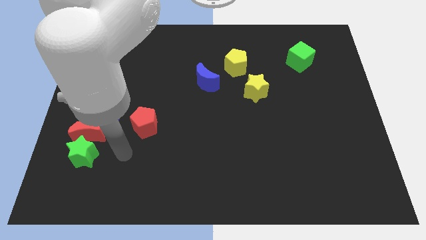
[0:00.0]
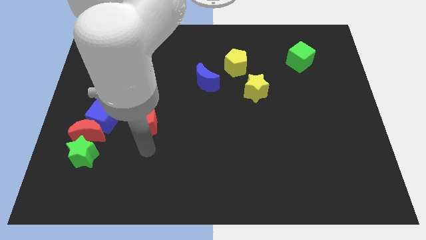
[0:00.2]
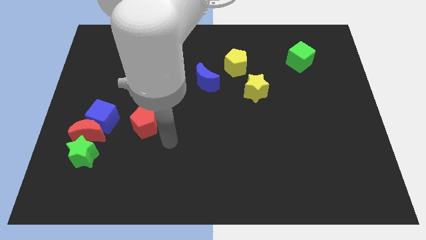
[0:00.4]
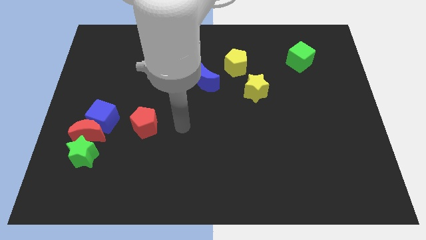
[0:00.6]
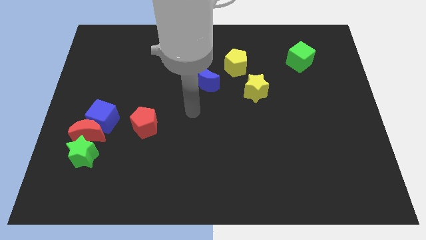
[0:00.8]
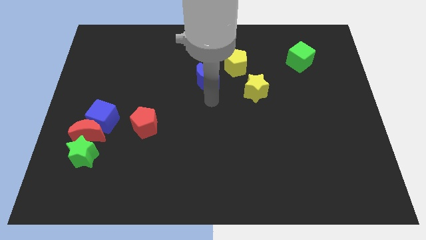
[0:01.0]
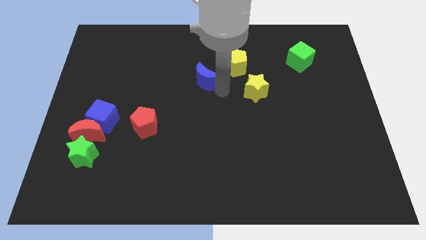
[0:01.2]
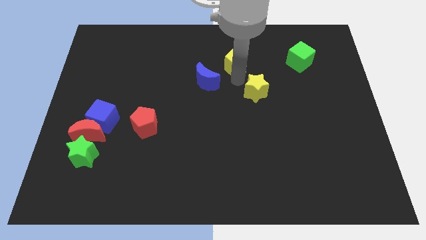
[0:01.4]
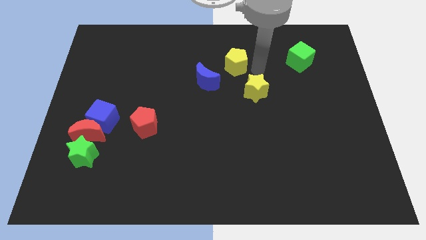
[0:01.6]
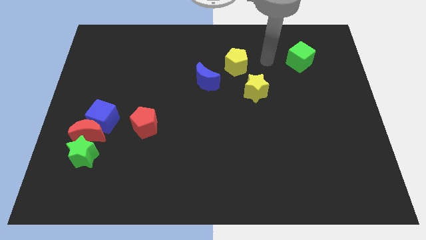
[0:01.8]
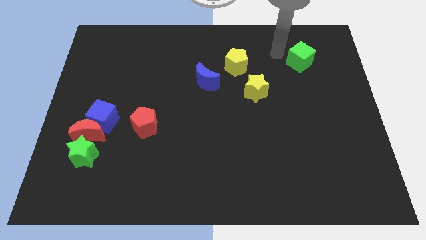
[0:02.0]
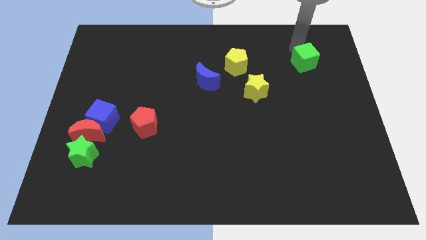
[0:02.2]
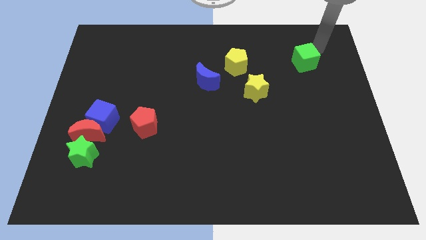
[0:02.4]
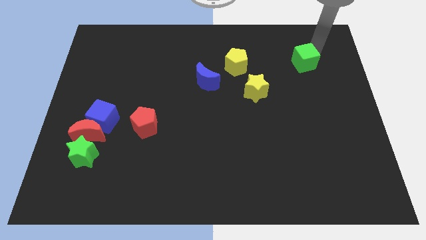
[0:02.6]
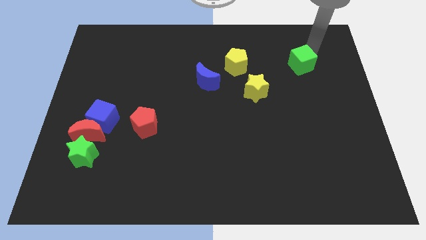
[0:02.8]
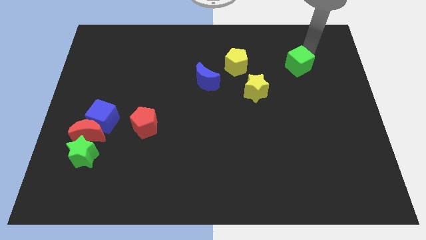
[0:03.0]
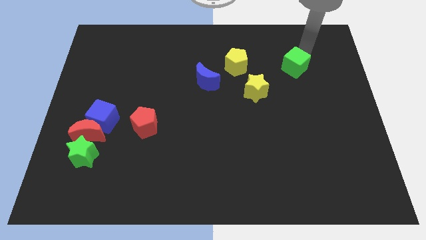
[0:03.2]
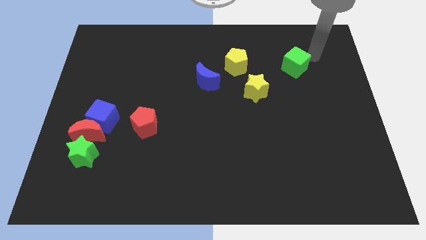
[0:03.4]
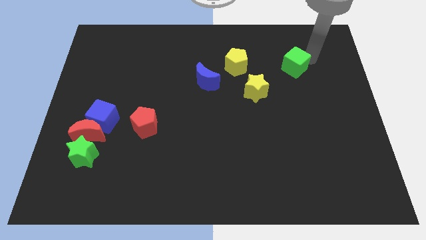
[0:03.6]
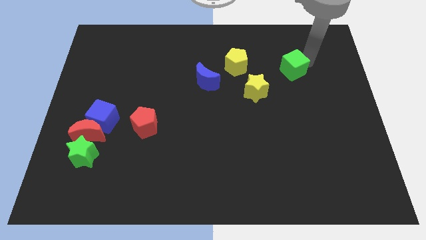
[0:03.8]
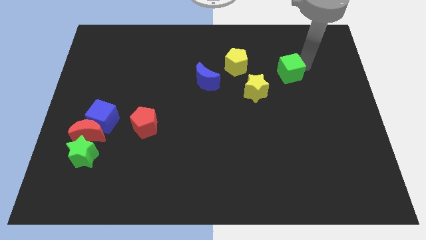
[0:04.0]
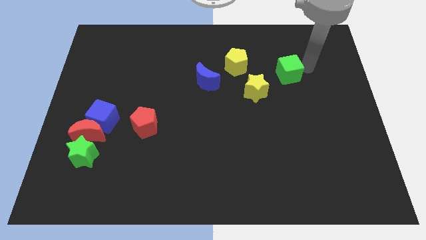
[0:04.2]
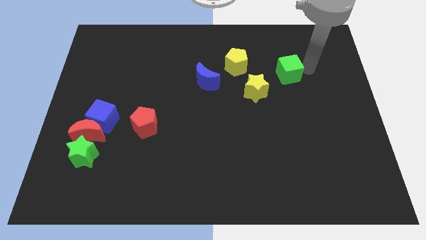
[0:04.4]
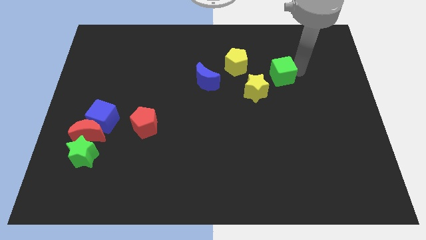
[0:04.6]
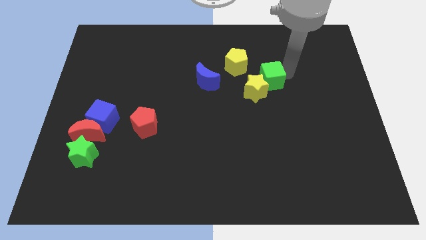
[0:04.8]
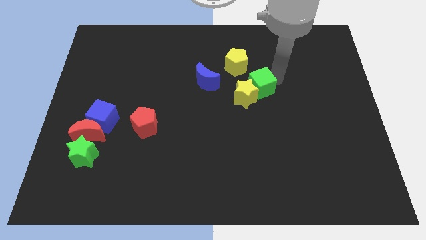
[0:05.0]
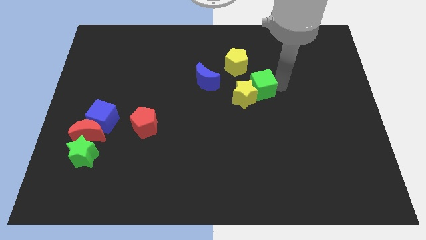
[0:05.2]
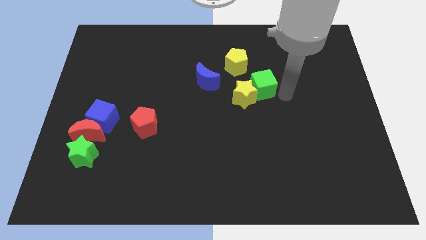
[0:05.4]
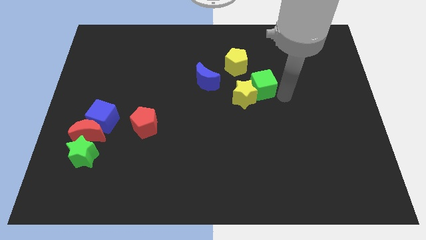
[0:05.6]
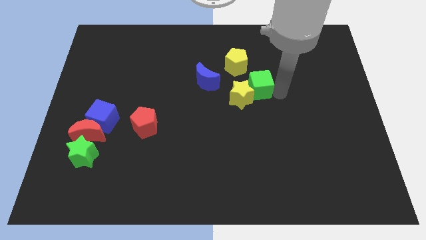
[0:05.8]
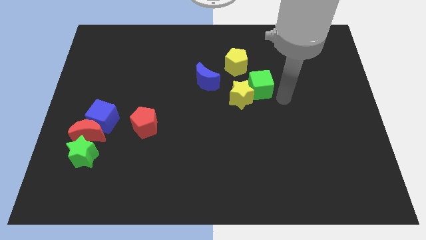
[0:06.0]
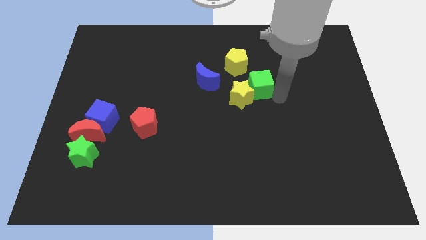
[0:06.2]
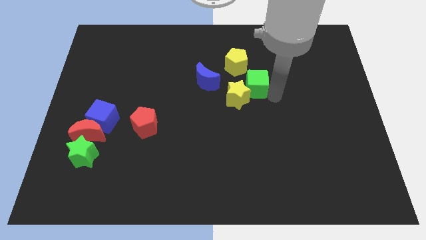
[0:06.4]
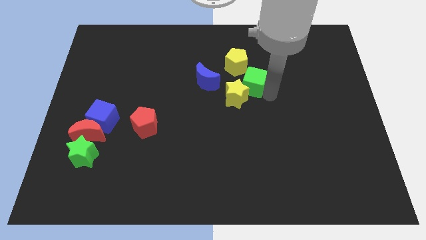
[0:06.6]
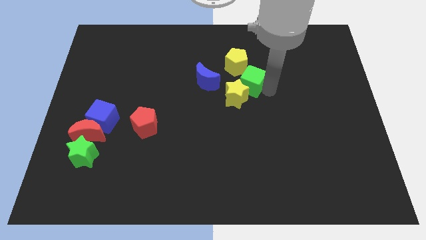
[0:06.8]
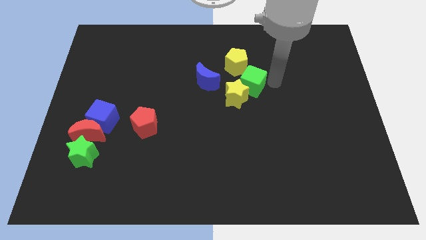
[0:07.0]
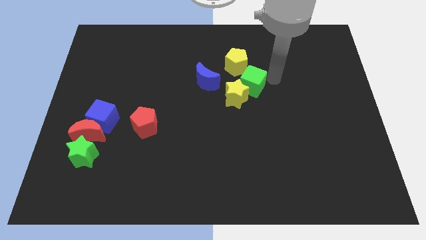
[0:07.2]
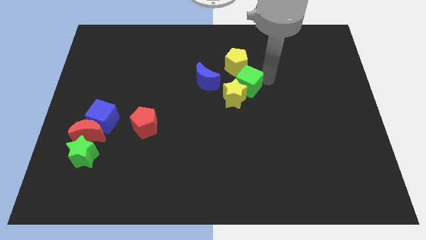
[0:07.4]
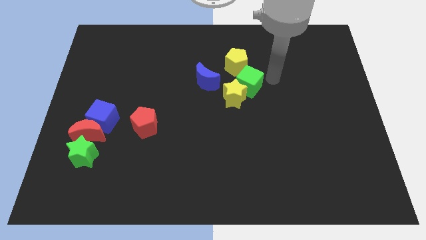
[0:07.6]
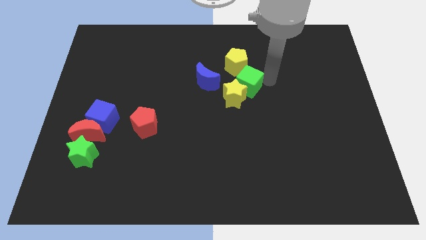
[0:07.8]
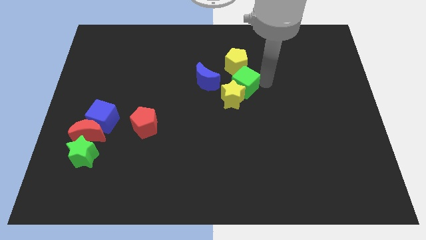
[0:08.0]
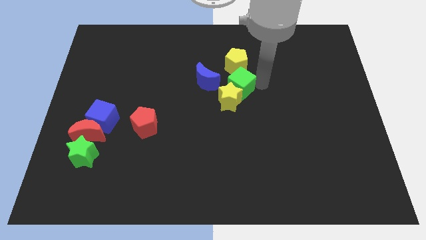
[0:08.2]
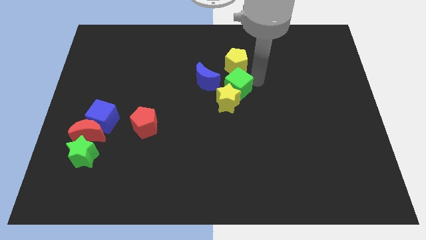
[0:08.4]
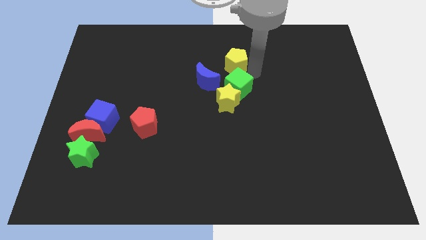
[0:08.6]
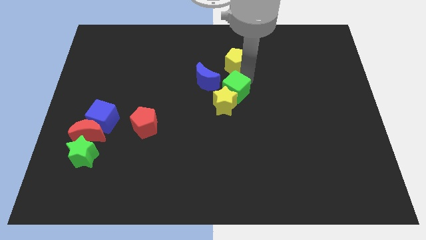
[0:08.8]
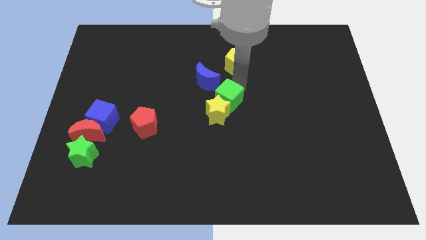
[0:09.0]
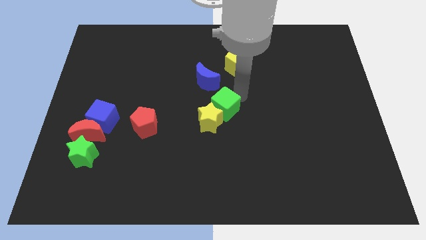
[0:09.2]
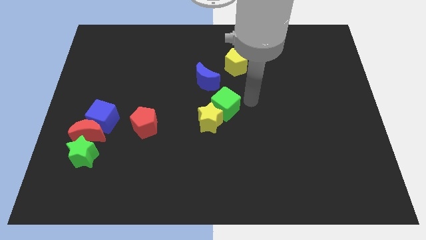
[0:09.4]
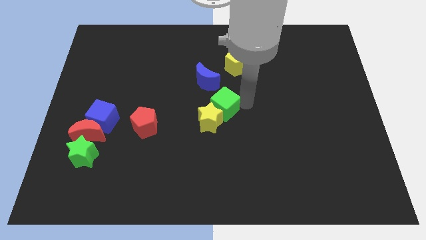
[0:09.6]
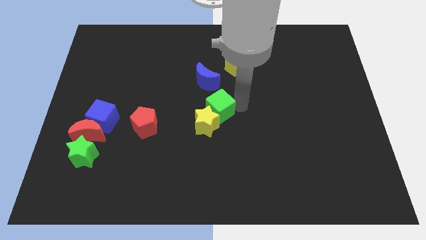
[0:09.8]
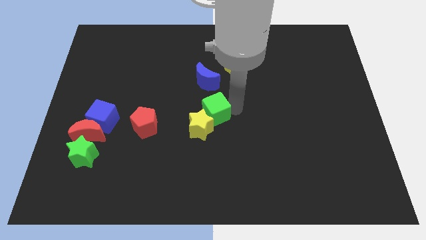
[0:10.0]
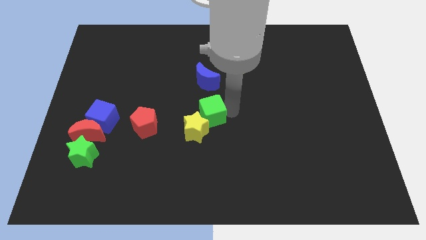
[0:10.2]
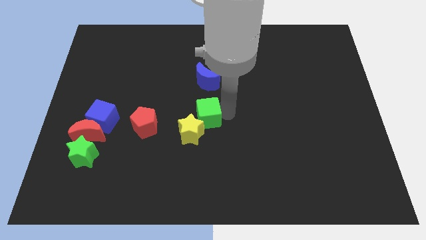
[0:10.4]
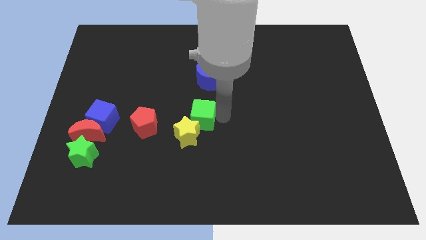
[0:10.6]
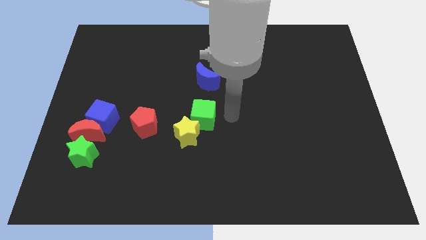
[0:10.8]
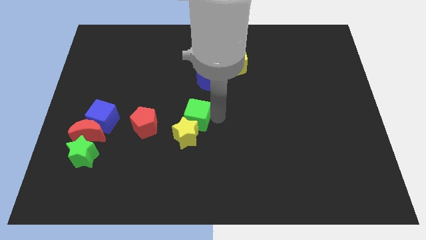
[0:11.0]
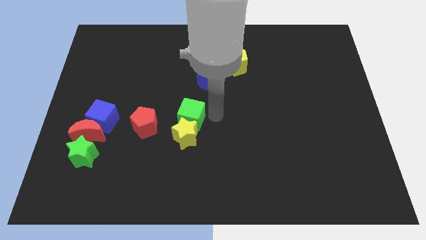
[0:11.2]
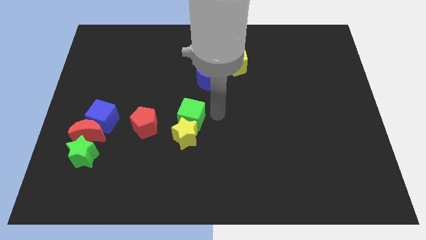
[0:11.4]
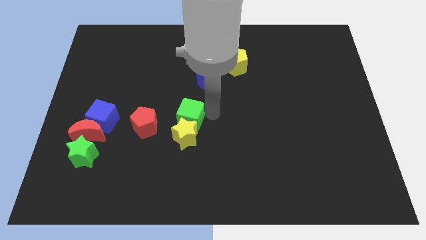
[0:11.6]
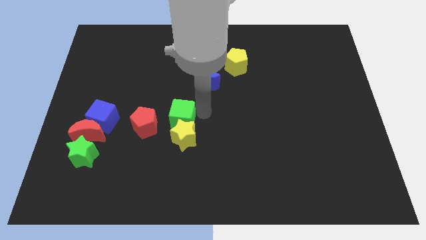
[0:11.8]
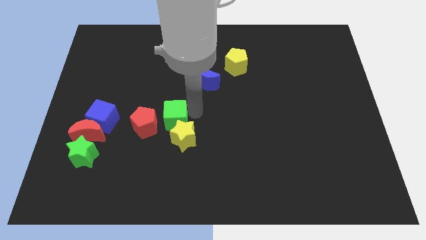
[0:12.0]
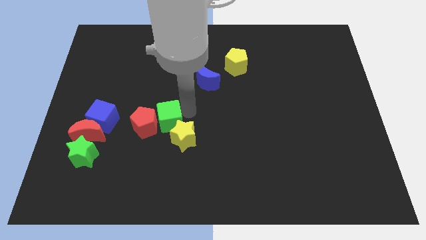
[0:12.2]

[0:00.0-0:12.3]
push the green cube towards the red pentagon

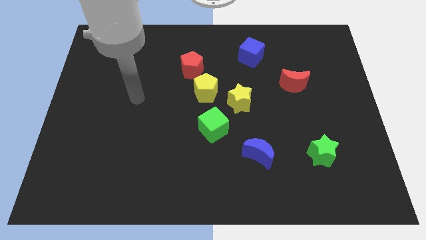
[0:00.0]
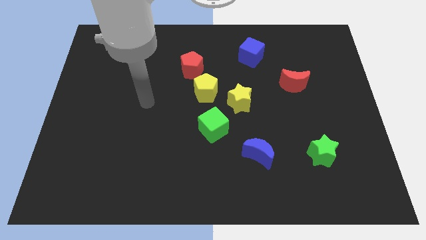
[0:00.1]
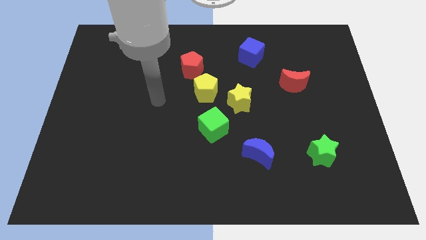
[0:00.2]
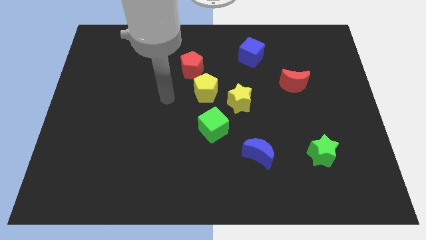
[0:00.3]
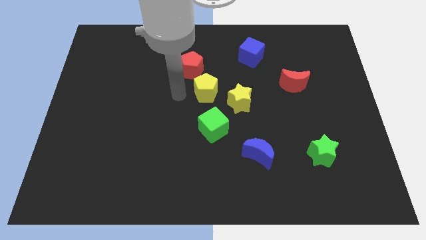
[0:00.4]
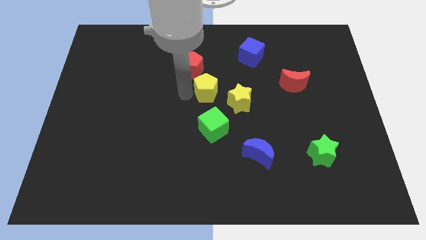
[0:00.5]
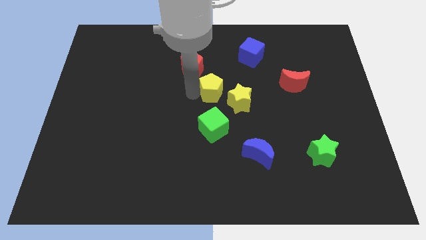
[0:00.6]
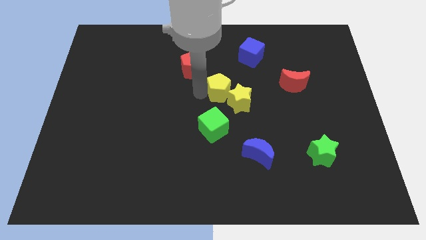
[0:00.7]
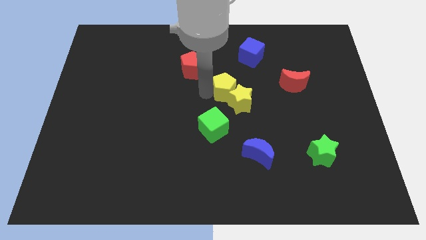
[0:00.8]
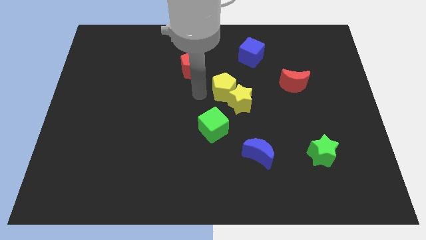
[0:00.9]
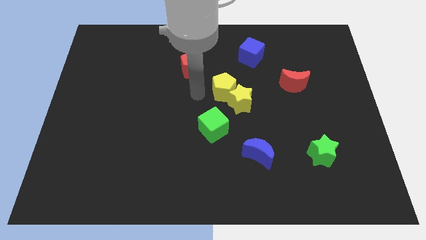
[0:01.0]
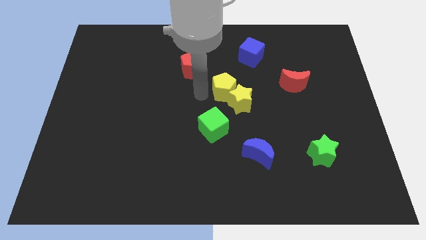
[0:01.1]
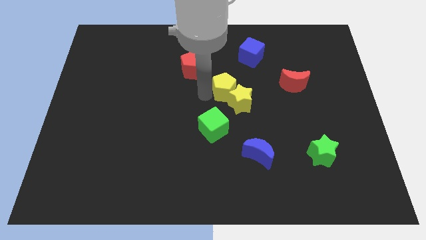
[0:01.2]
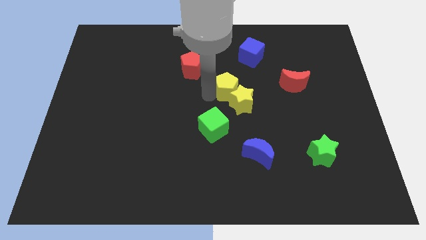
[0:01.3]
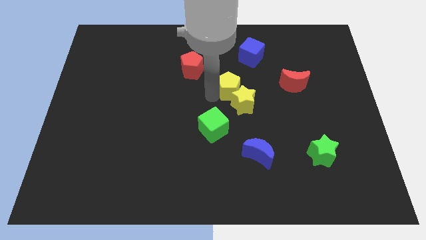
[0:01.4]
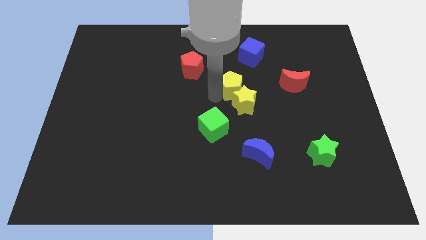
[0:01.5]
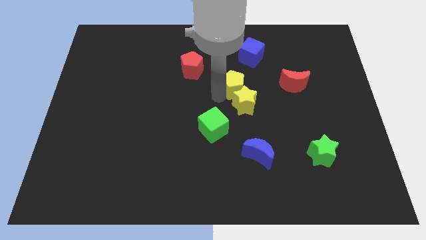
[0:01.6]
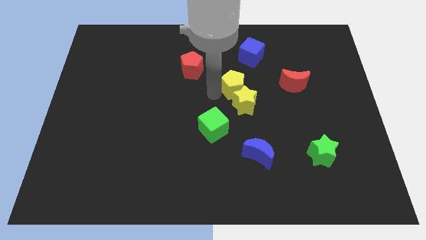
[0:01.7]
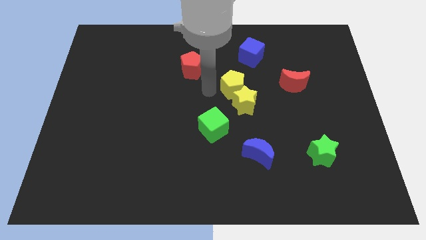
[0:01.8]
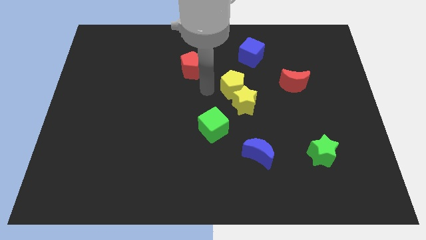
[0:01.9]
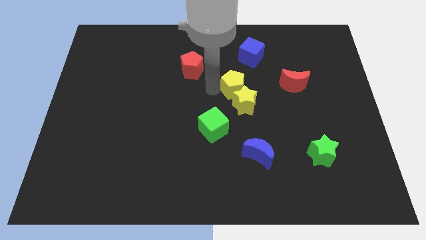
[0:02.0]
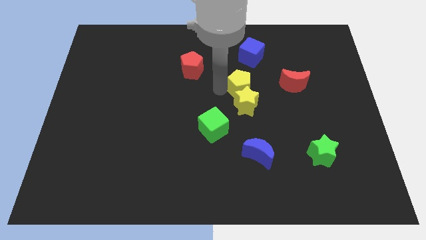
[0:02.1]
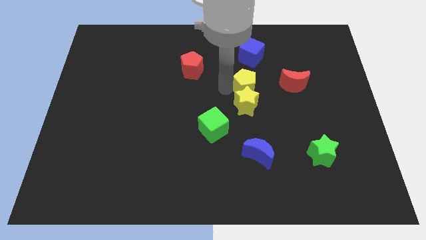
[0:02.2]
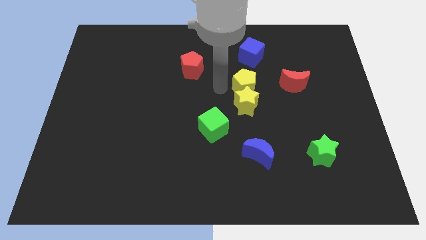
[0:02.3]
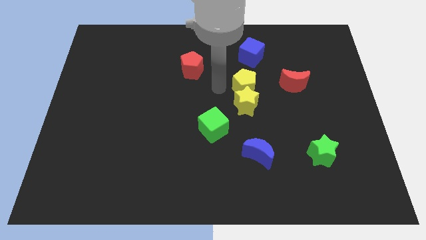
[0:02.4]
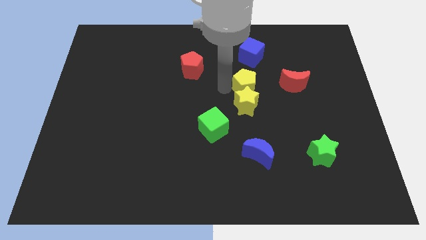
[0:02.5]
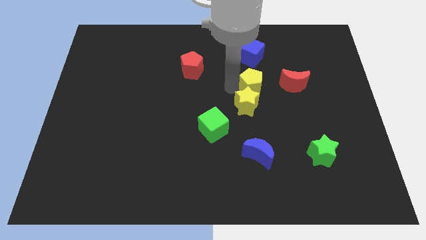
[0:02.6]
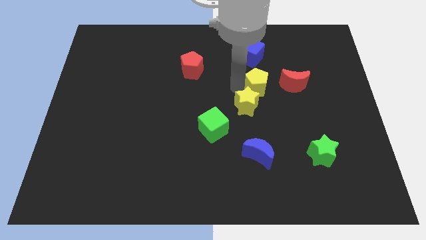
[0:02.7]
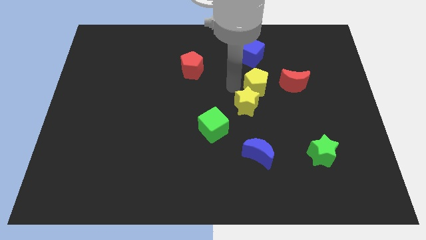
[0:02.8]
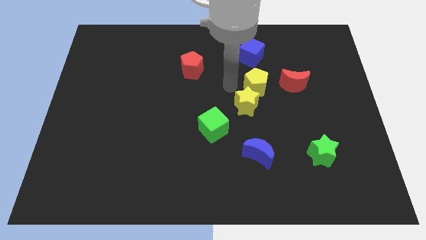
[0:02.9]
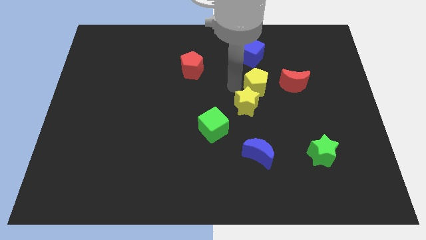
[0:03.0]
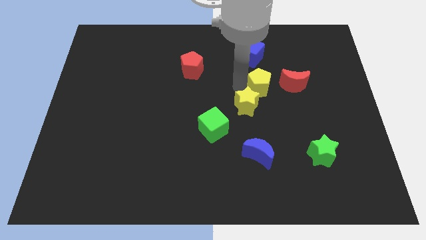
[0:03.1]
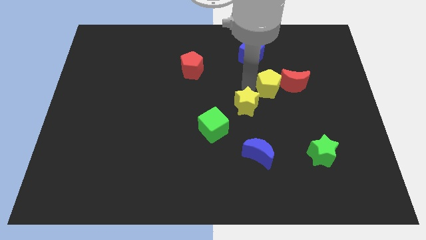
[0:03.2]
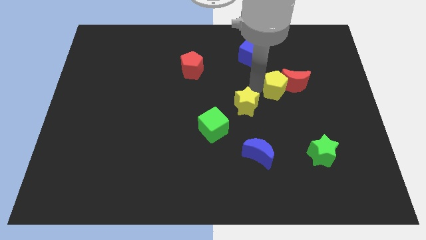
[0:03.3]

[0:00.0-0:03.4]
move the yellow pentagon next to the red moon
